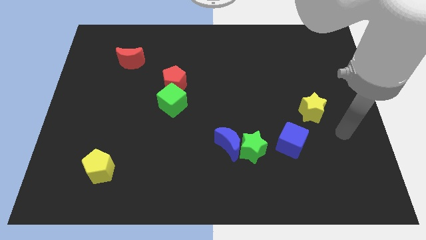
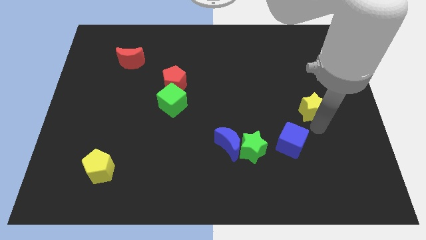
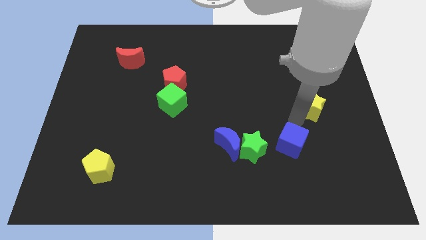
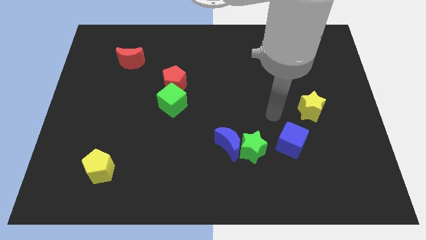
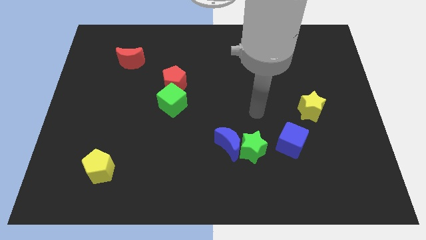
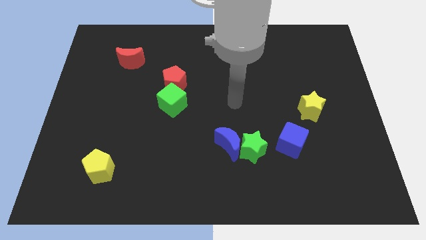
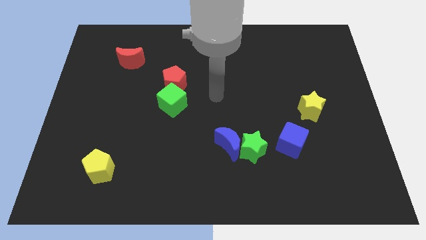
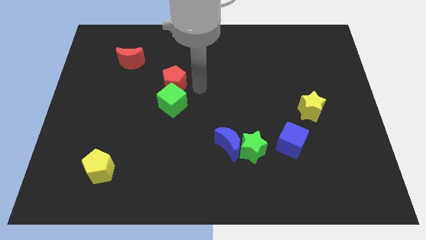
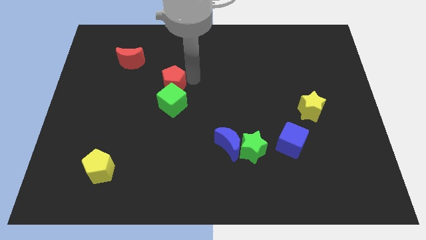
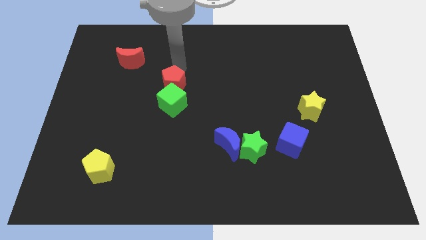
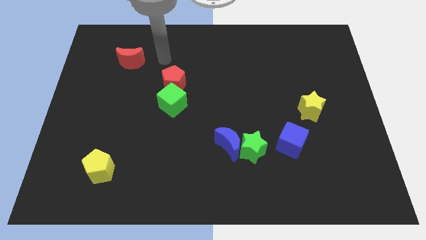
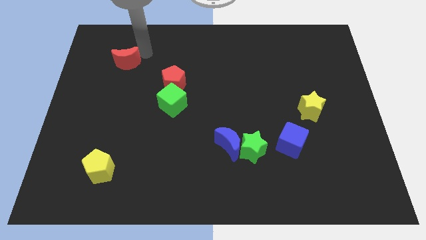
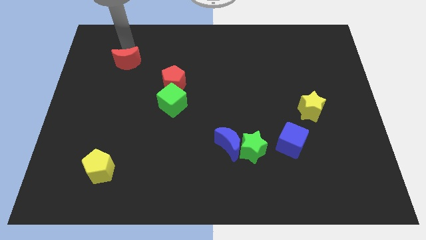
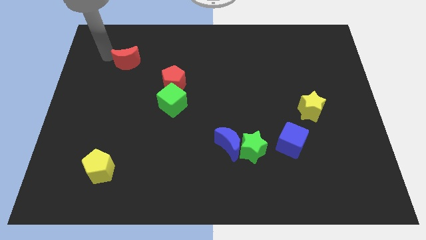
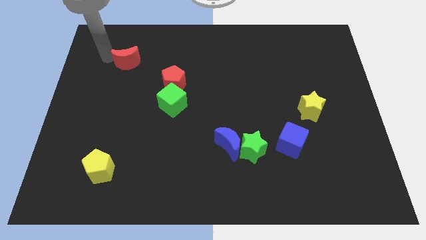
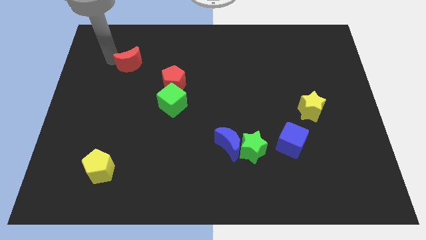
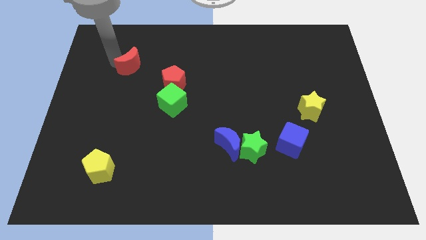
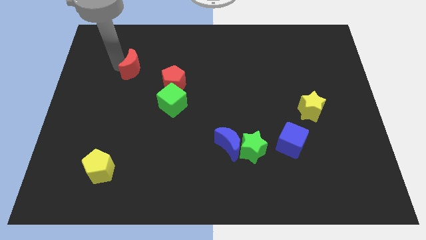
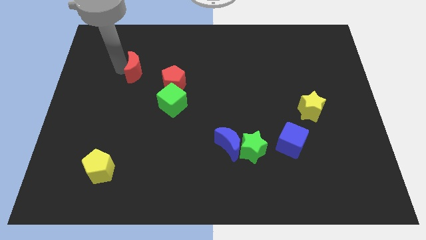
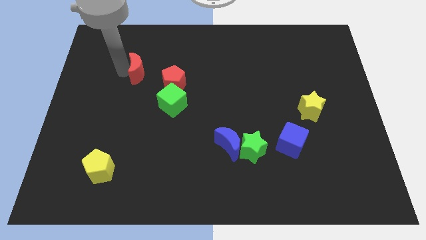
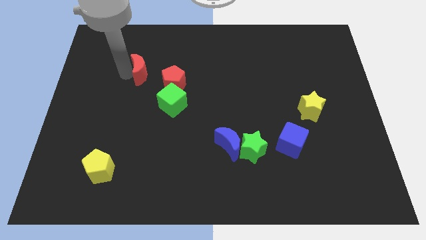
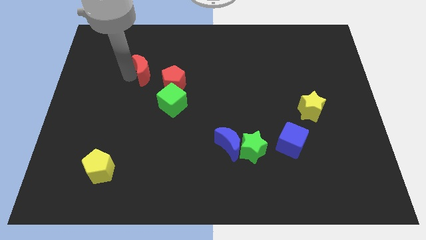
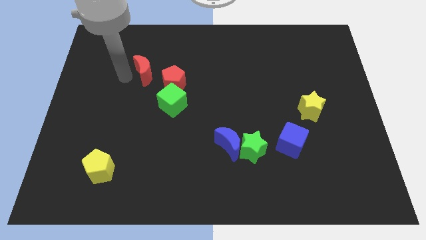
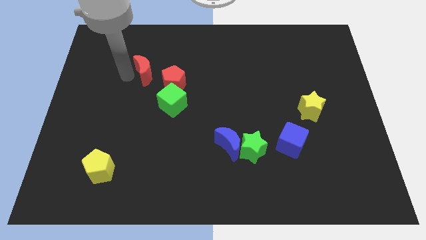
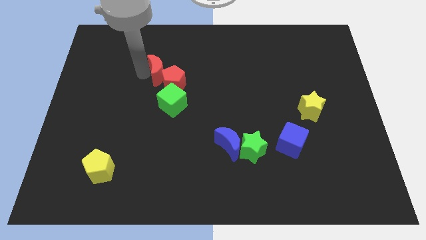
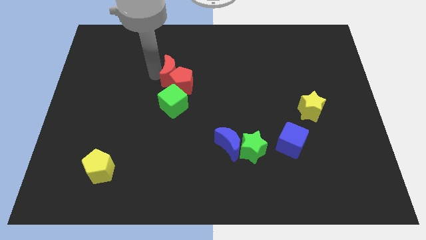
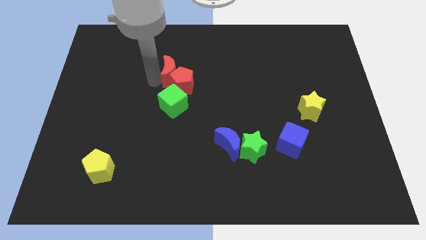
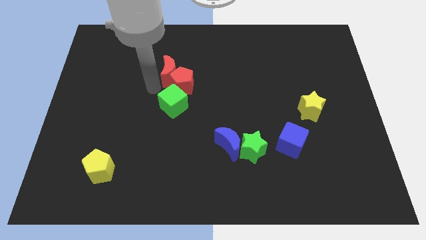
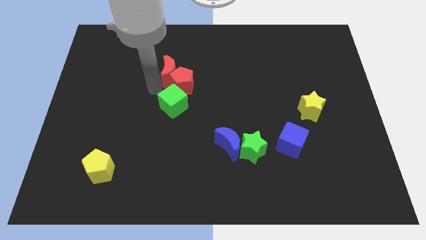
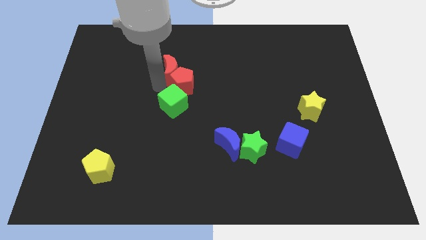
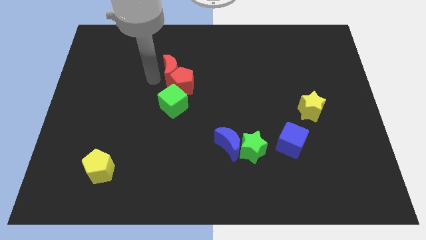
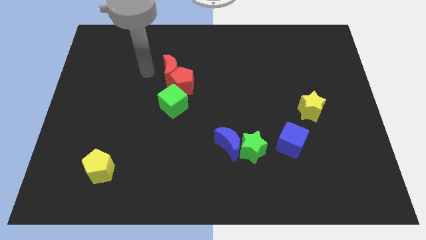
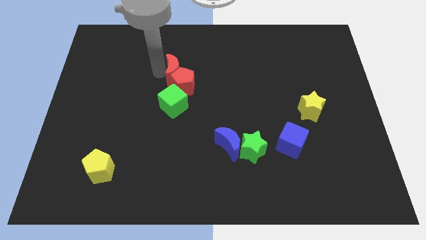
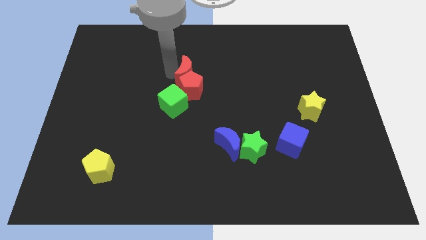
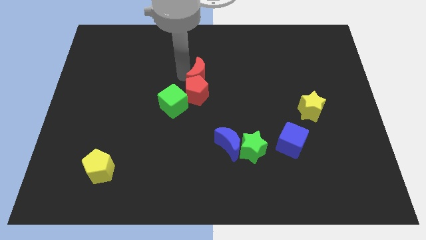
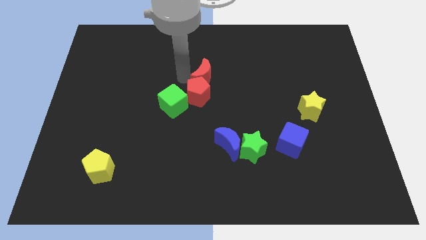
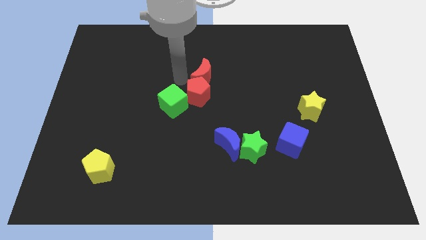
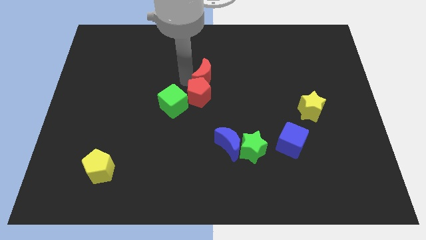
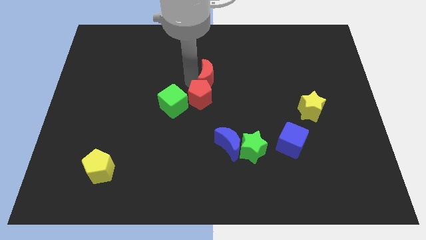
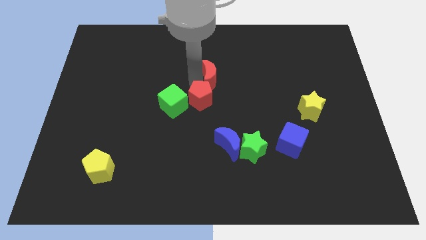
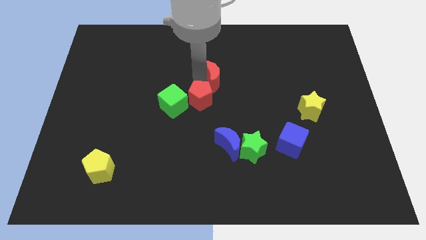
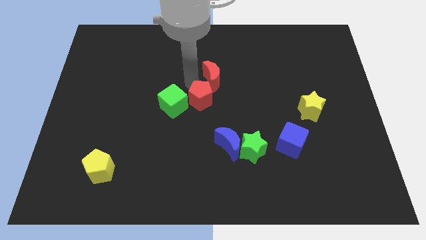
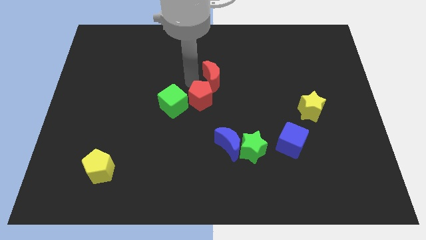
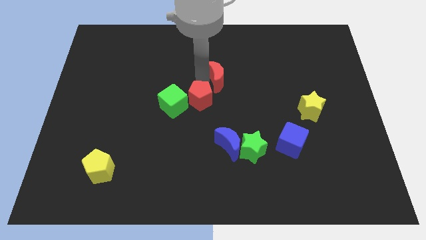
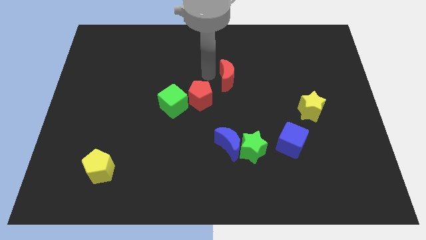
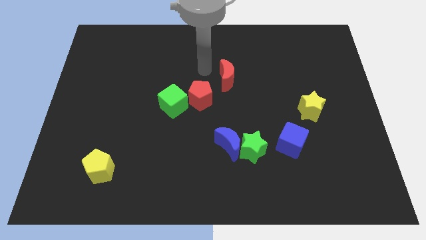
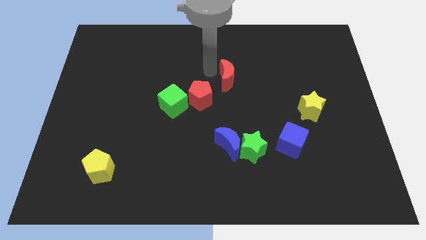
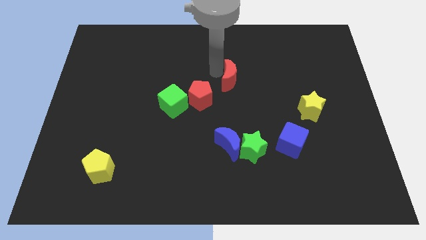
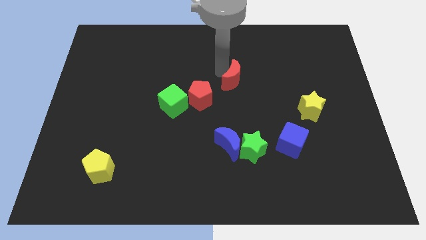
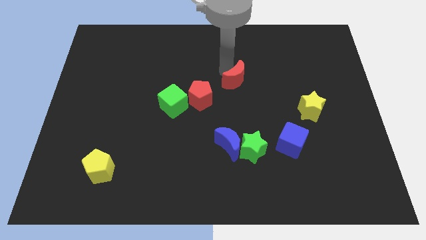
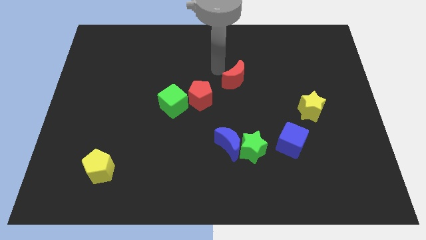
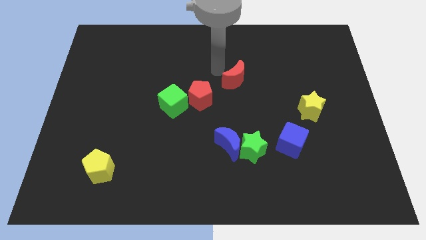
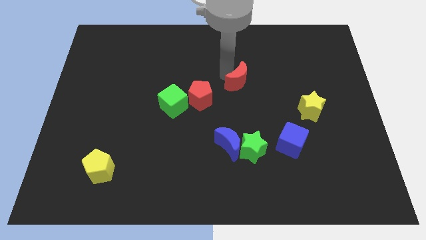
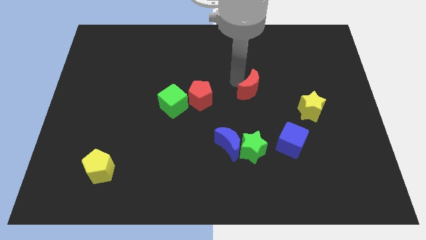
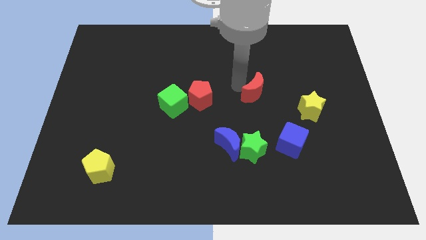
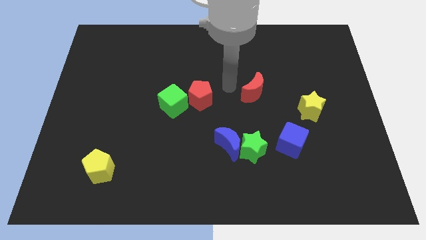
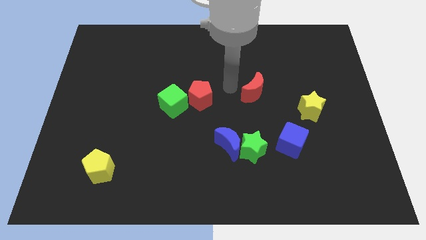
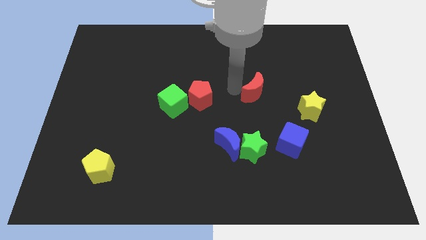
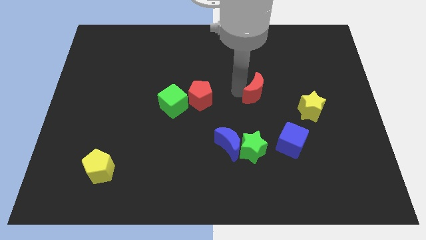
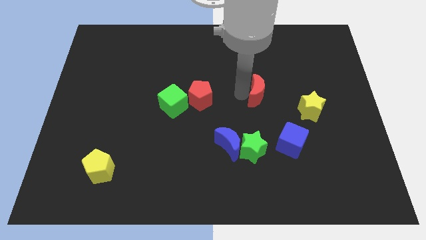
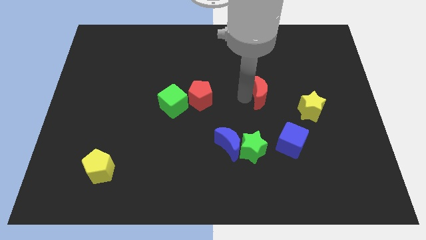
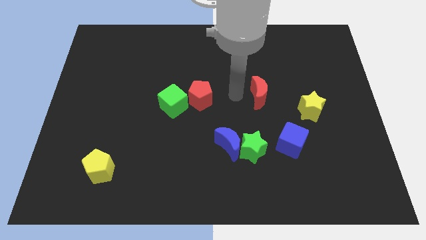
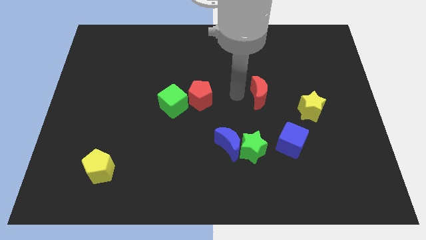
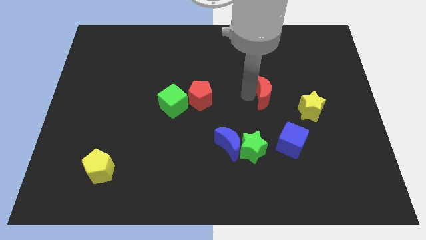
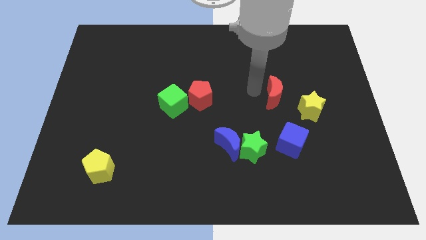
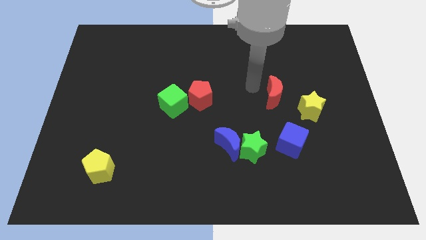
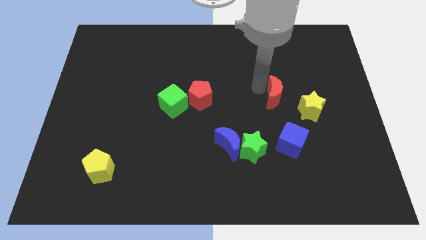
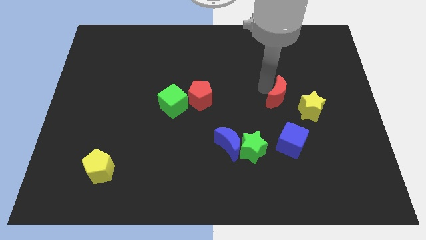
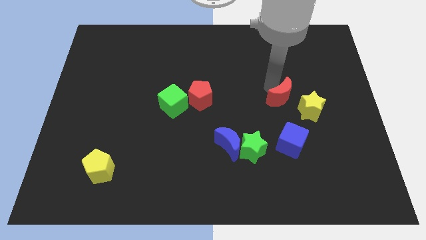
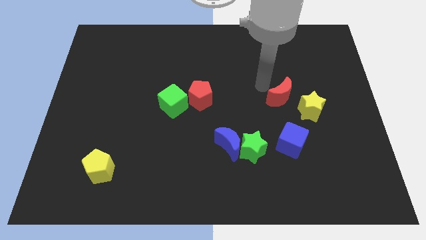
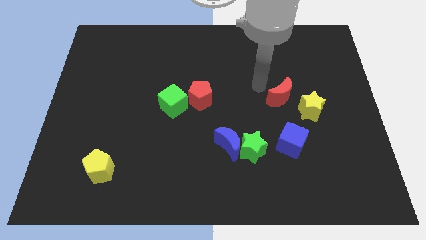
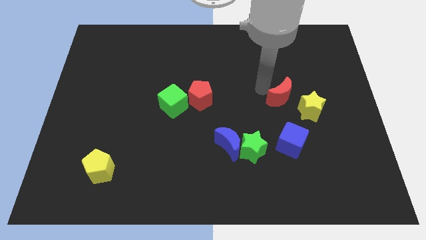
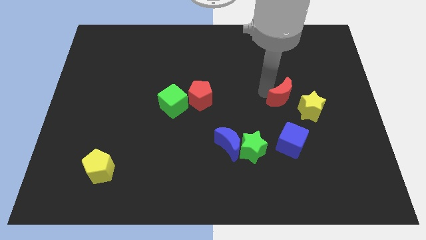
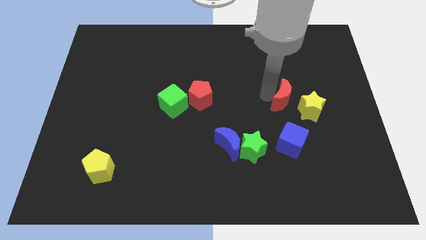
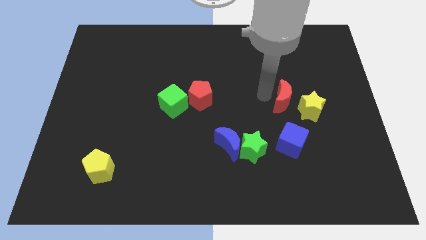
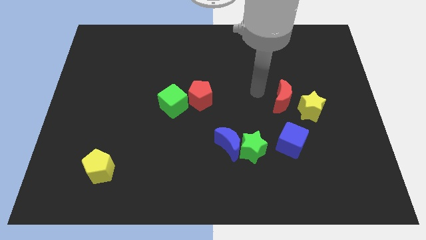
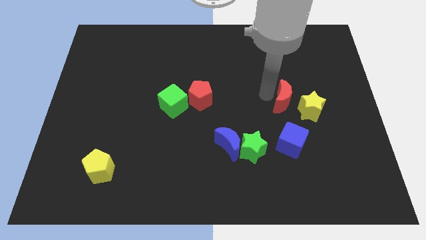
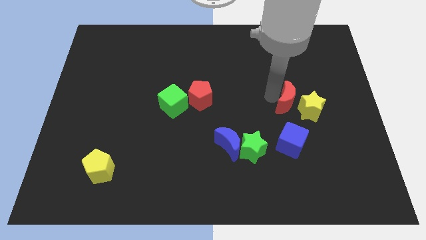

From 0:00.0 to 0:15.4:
move the red moon close to the yellow star
